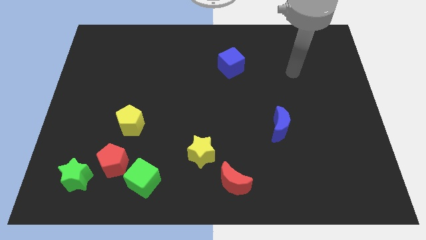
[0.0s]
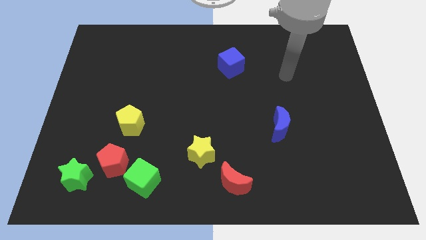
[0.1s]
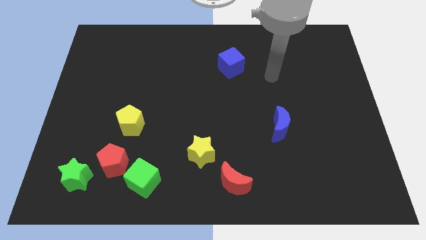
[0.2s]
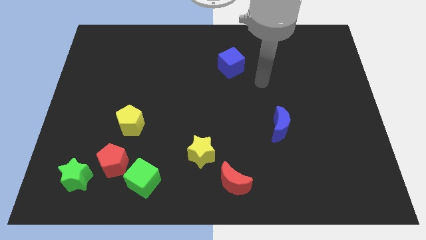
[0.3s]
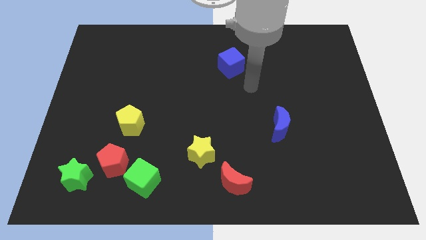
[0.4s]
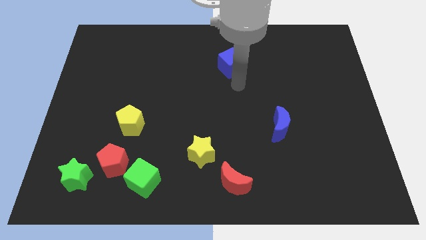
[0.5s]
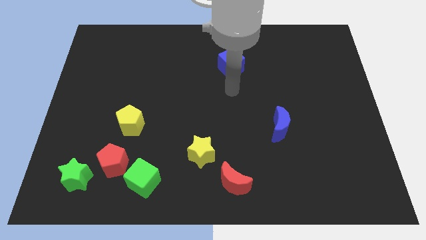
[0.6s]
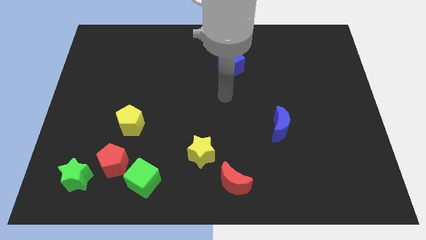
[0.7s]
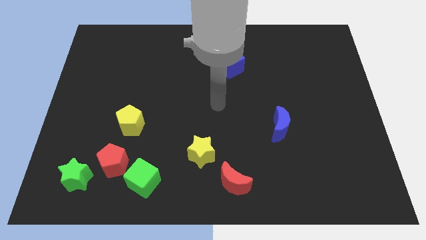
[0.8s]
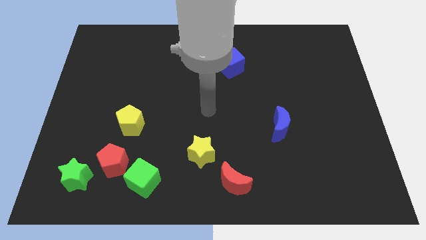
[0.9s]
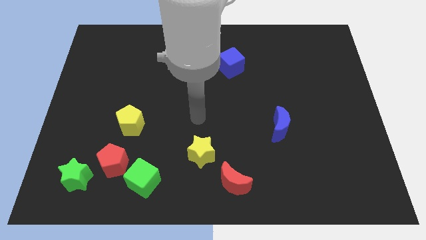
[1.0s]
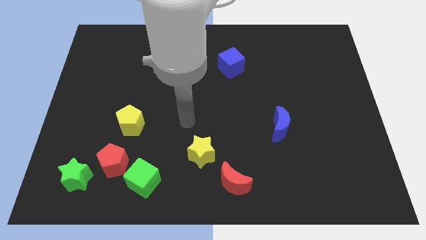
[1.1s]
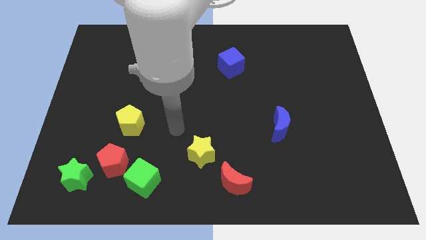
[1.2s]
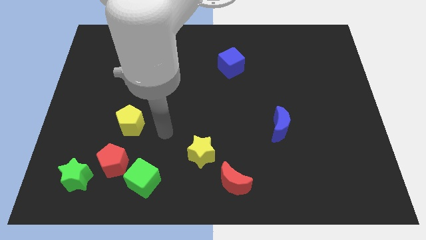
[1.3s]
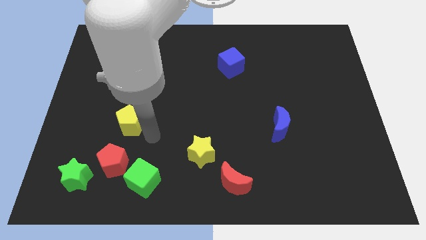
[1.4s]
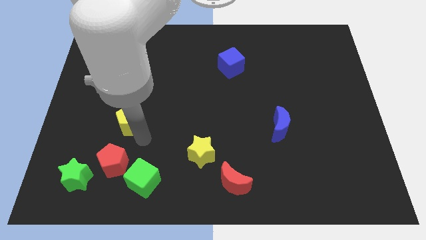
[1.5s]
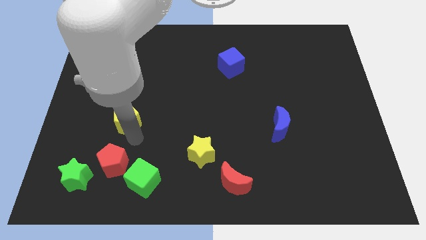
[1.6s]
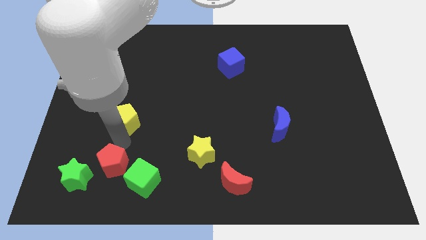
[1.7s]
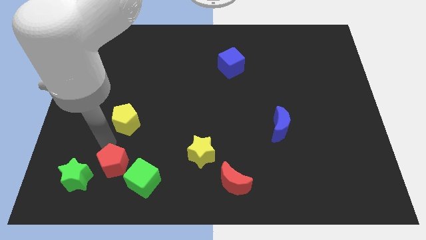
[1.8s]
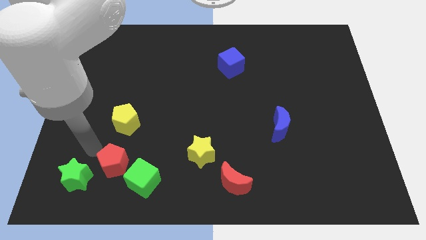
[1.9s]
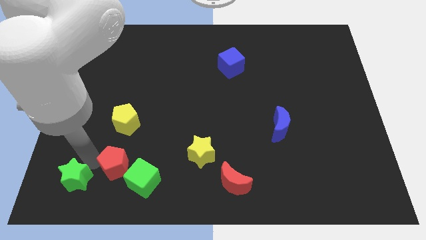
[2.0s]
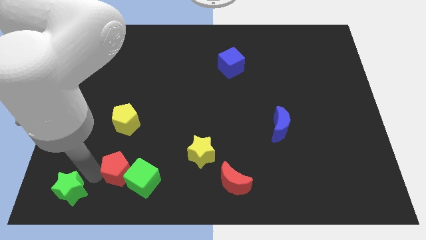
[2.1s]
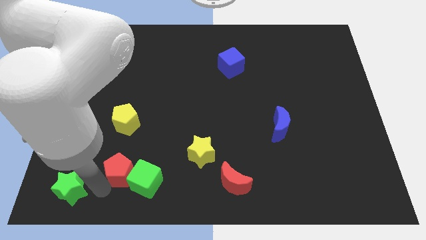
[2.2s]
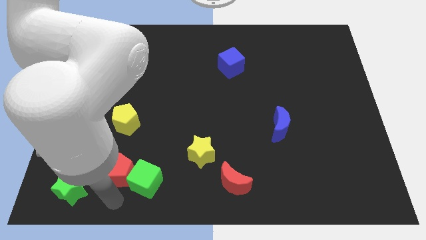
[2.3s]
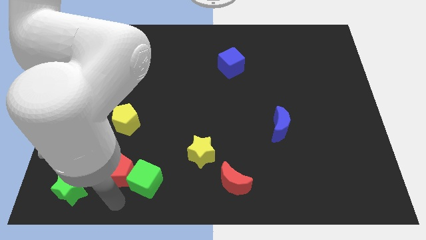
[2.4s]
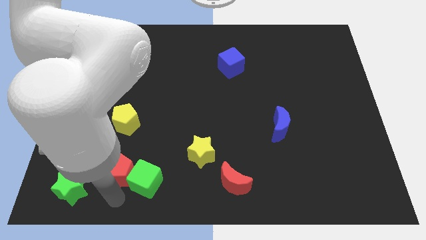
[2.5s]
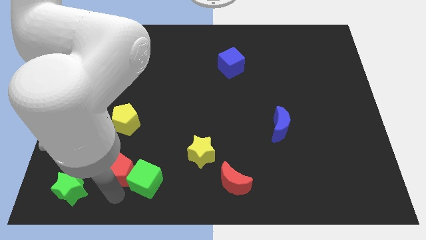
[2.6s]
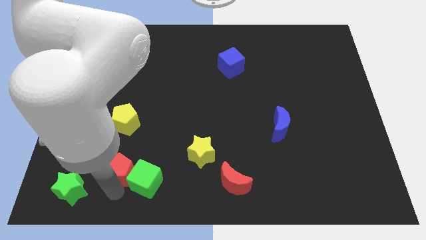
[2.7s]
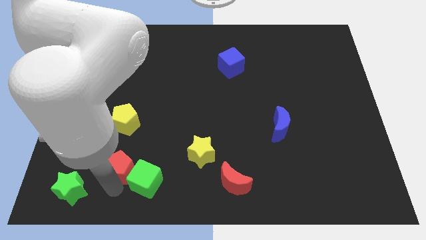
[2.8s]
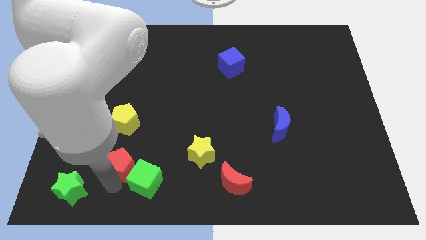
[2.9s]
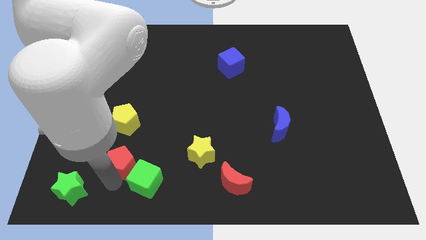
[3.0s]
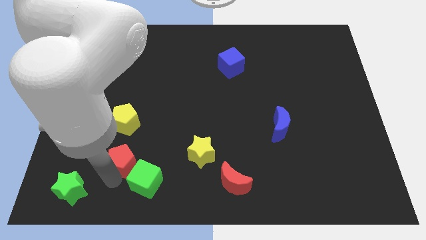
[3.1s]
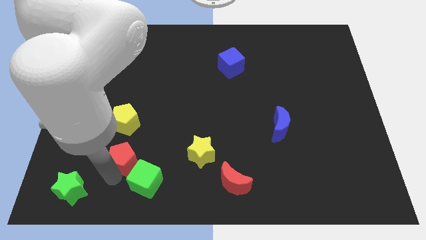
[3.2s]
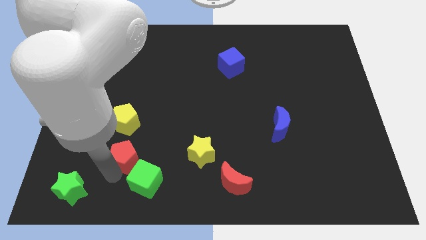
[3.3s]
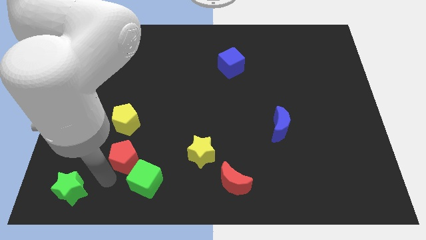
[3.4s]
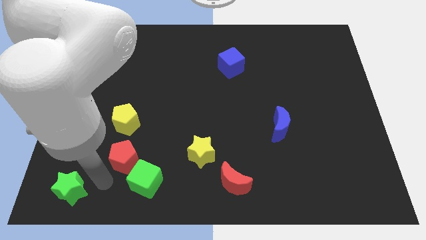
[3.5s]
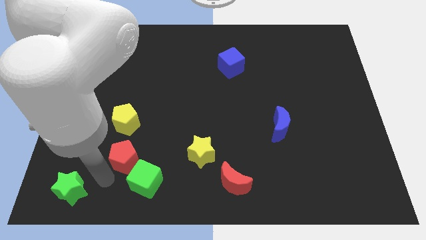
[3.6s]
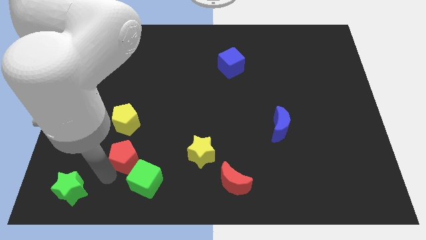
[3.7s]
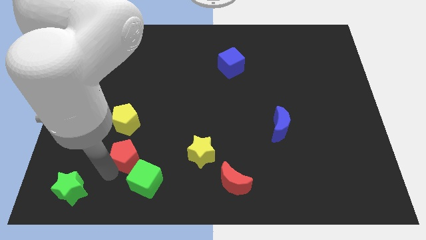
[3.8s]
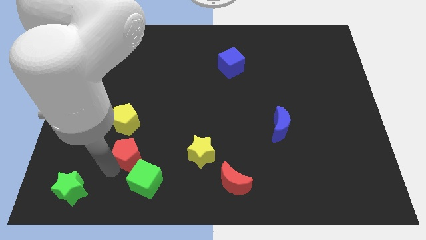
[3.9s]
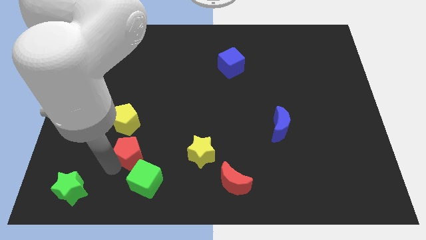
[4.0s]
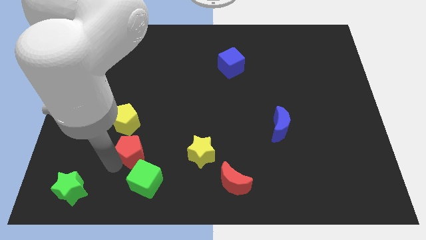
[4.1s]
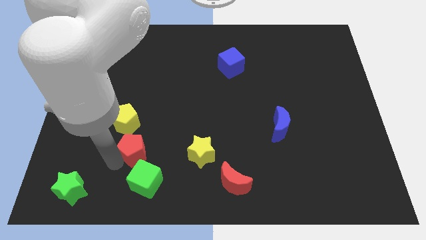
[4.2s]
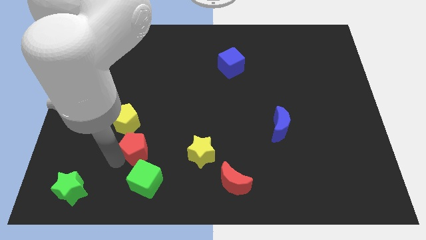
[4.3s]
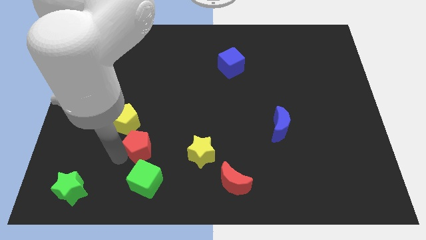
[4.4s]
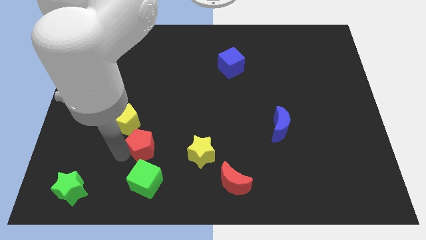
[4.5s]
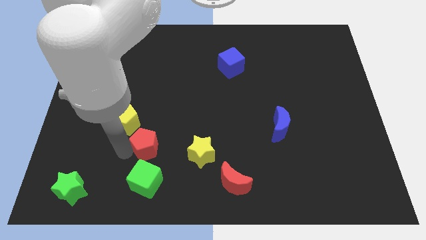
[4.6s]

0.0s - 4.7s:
slide the red pentagon up and then to the right a bit

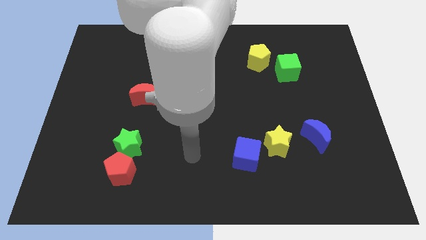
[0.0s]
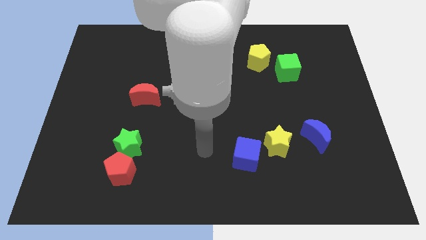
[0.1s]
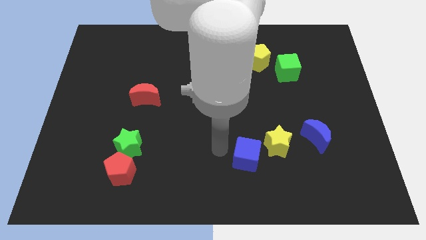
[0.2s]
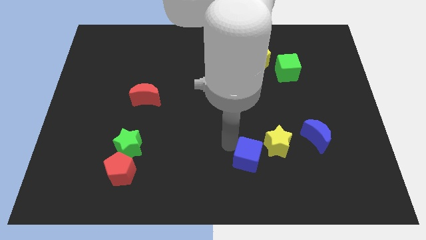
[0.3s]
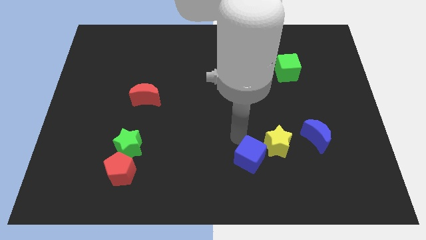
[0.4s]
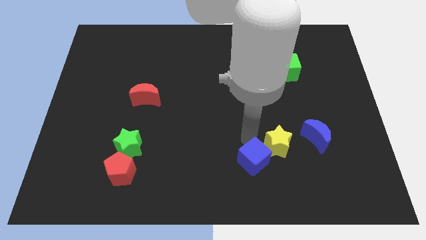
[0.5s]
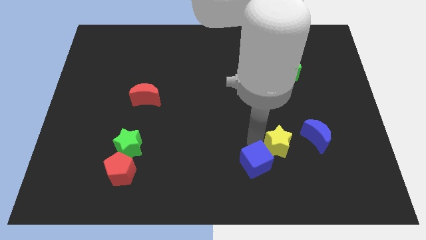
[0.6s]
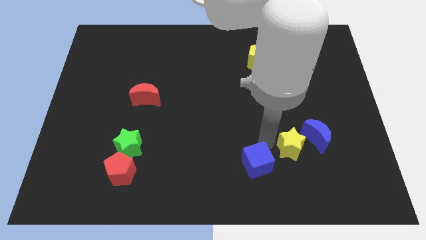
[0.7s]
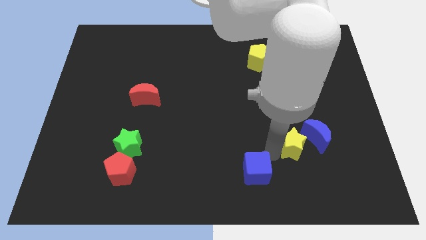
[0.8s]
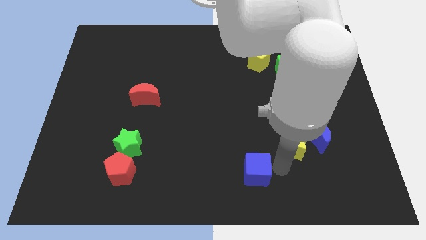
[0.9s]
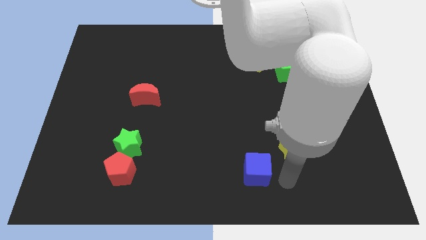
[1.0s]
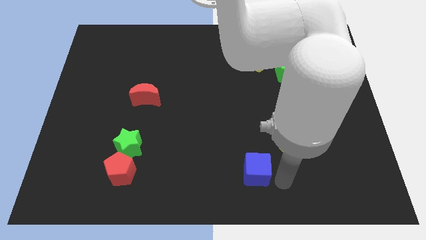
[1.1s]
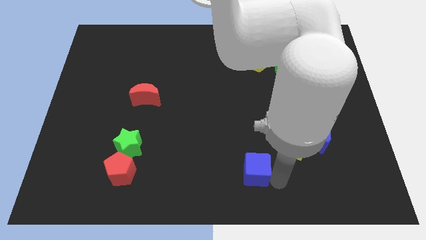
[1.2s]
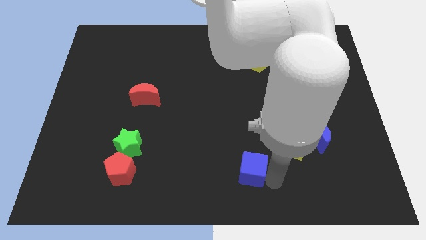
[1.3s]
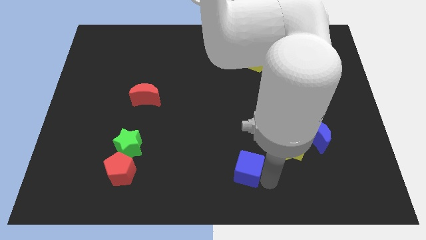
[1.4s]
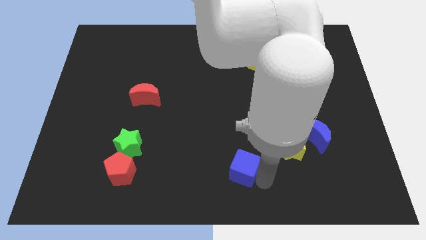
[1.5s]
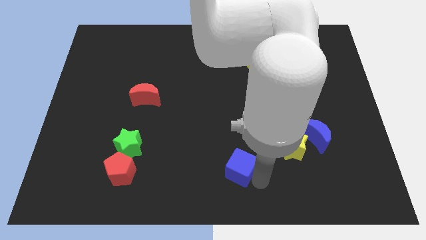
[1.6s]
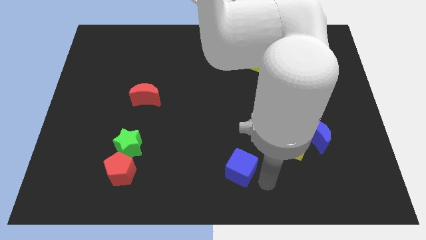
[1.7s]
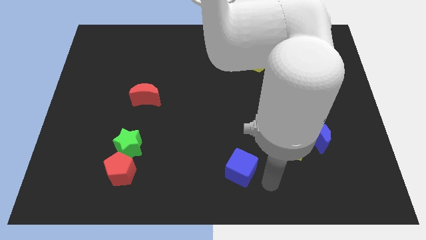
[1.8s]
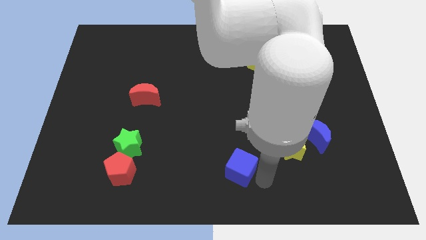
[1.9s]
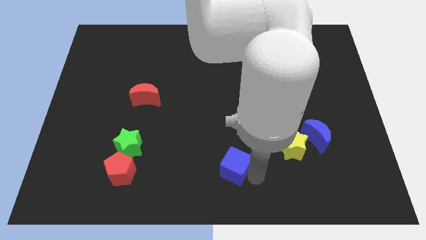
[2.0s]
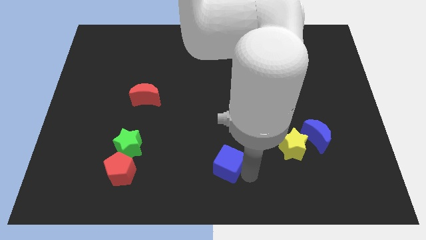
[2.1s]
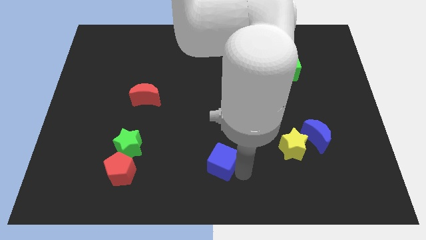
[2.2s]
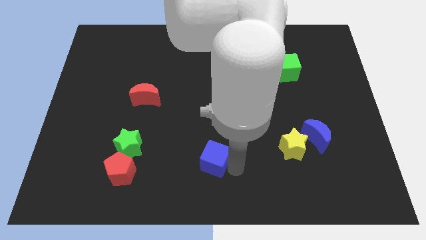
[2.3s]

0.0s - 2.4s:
push the blue cube a little to the left

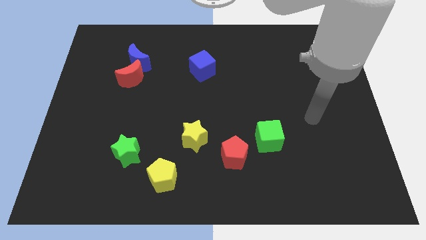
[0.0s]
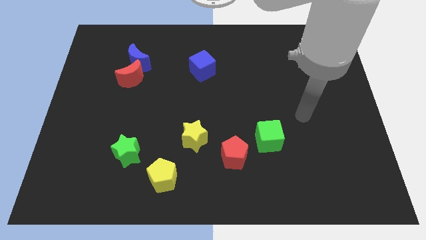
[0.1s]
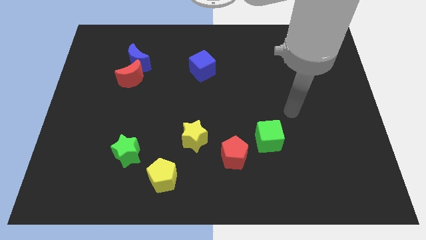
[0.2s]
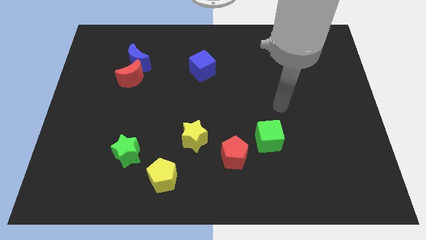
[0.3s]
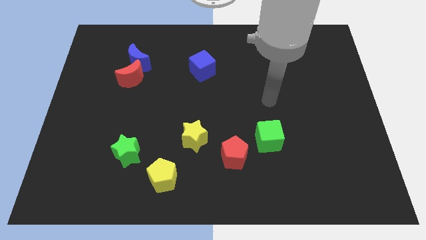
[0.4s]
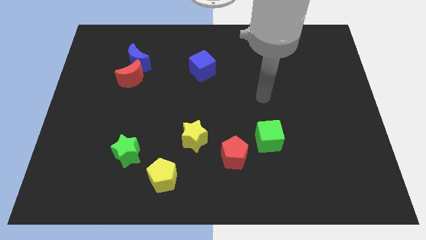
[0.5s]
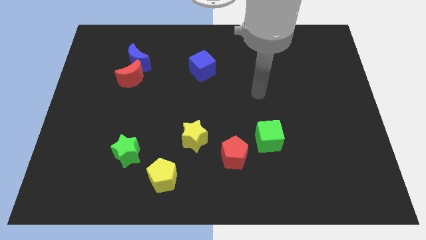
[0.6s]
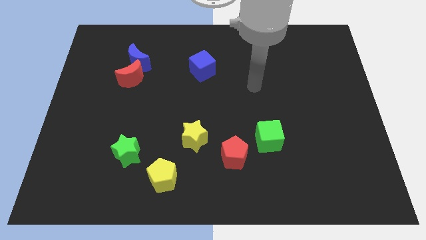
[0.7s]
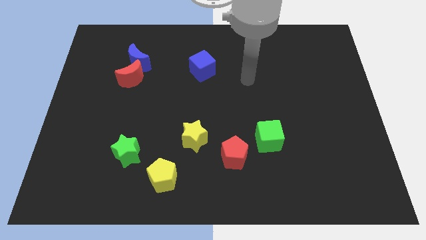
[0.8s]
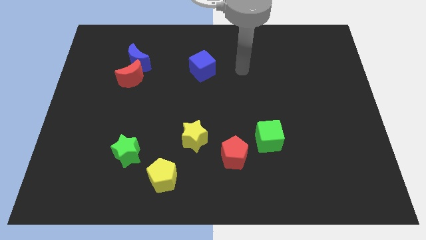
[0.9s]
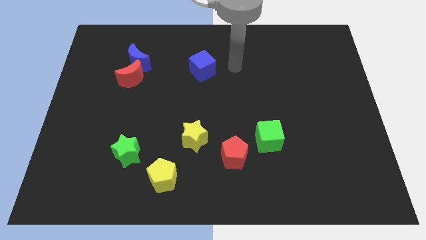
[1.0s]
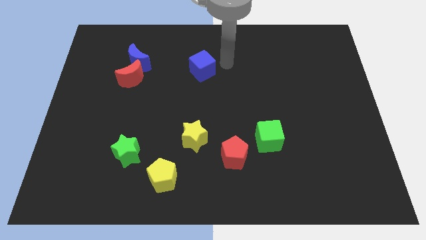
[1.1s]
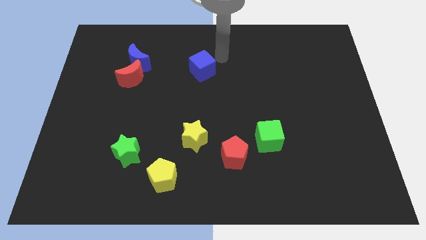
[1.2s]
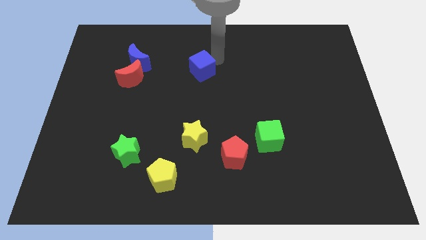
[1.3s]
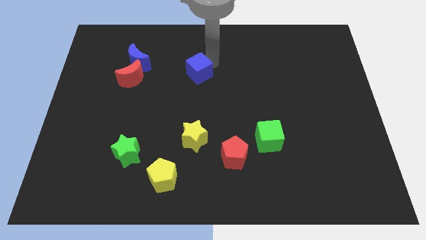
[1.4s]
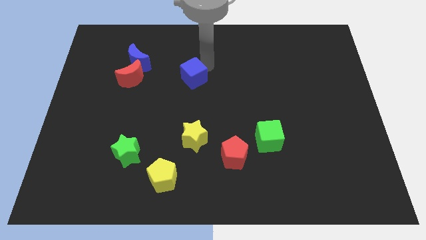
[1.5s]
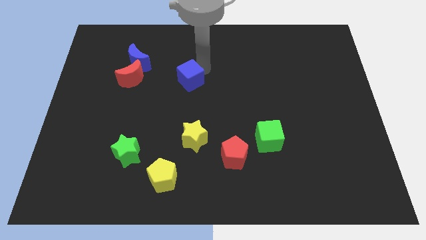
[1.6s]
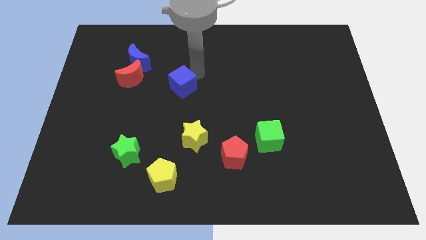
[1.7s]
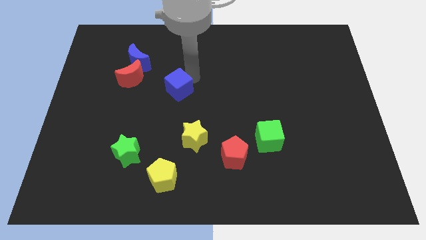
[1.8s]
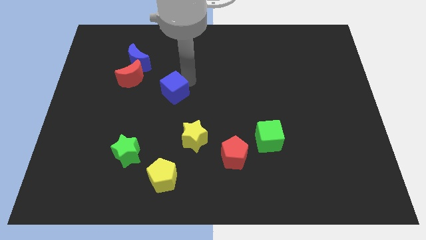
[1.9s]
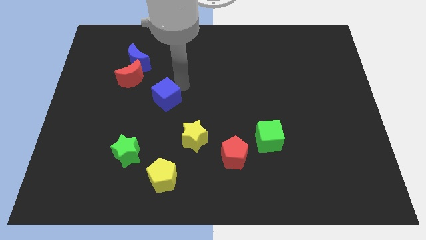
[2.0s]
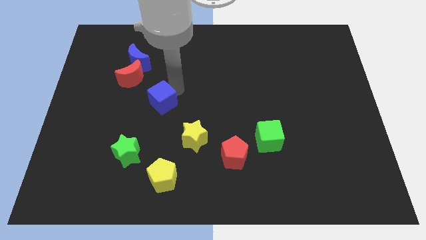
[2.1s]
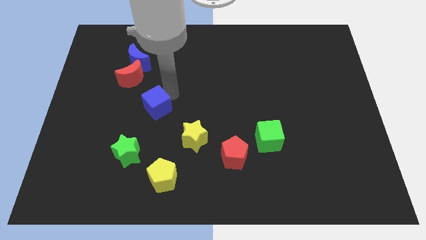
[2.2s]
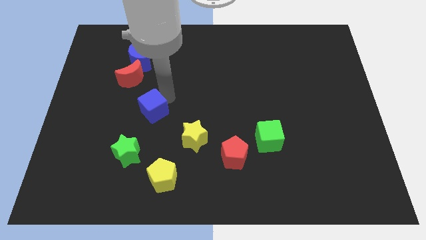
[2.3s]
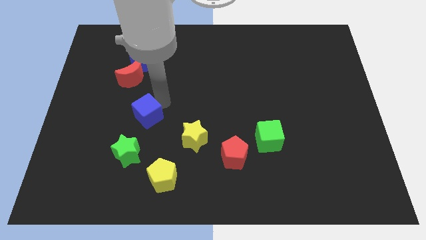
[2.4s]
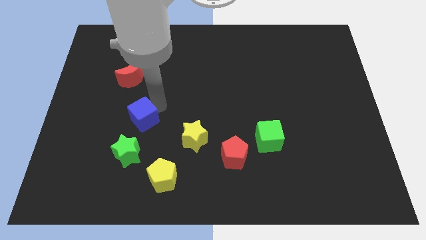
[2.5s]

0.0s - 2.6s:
move the blue cube diagonally downwards and to the left
